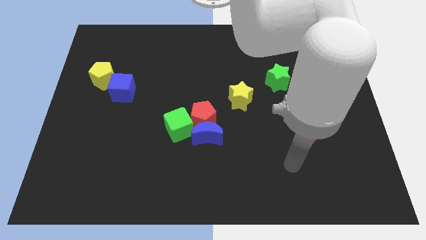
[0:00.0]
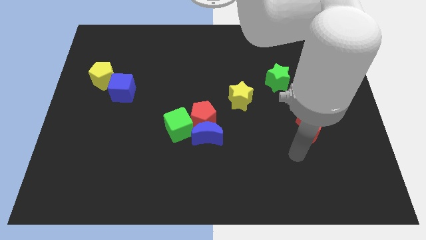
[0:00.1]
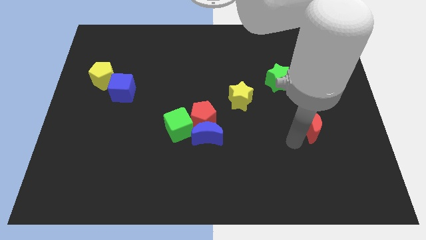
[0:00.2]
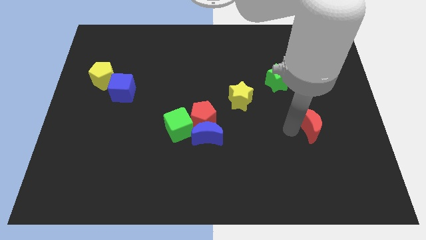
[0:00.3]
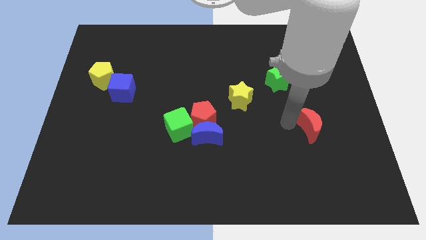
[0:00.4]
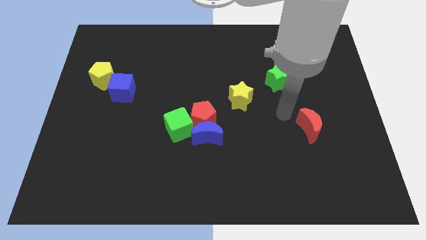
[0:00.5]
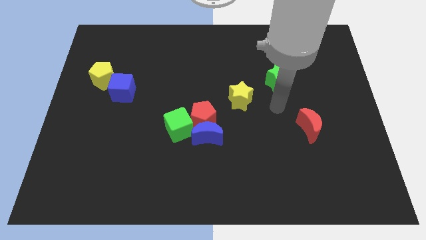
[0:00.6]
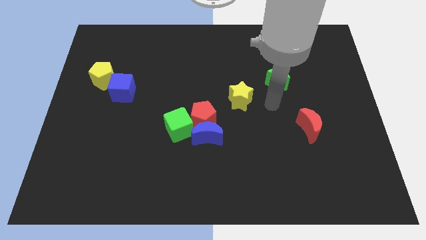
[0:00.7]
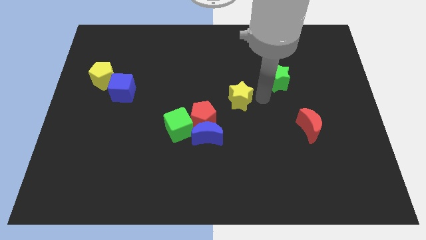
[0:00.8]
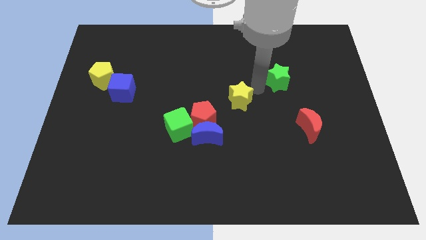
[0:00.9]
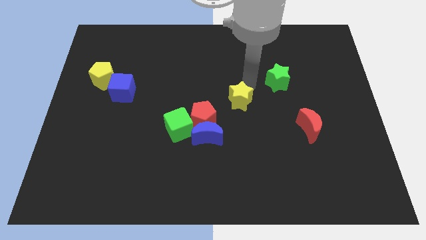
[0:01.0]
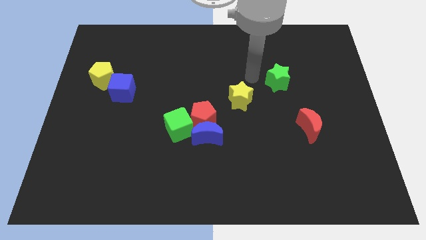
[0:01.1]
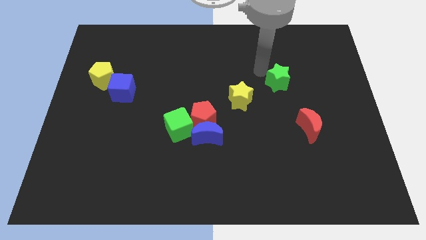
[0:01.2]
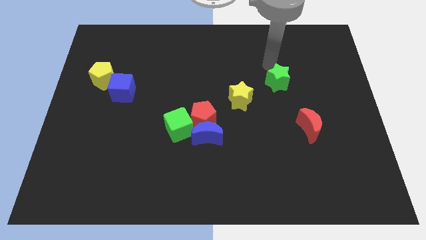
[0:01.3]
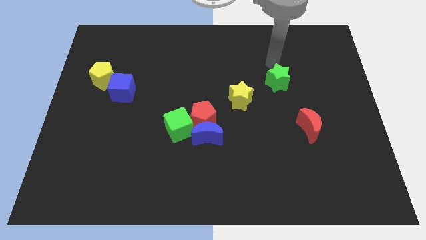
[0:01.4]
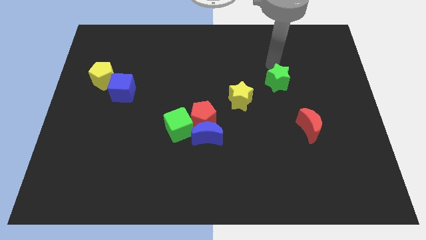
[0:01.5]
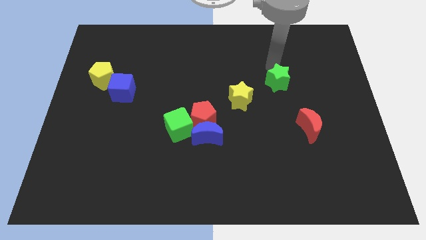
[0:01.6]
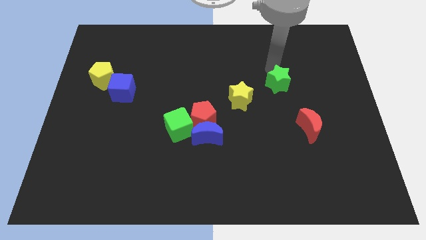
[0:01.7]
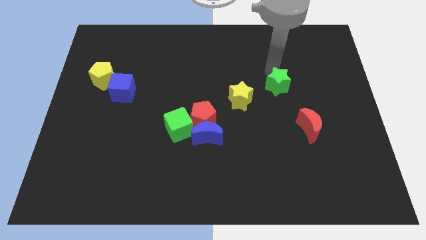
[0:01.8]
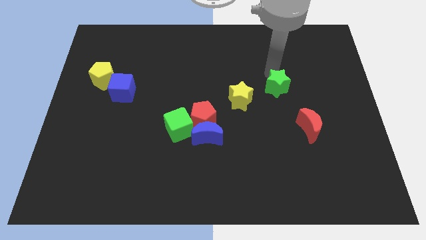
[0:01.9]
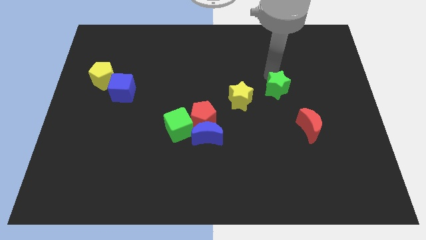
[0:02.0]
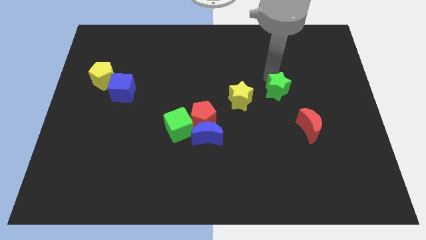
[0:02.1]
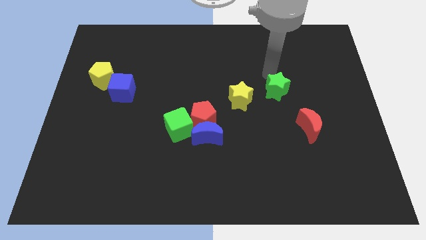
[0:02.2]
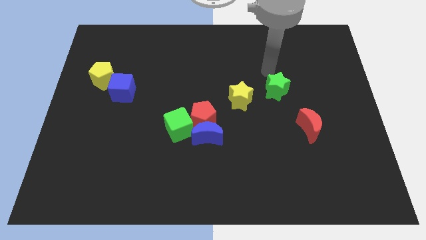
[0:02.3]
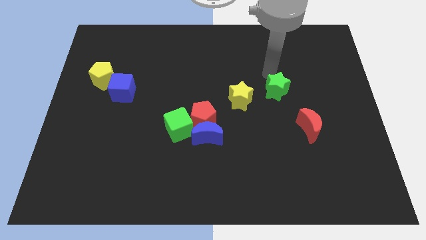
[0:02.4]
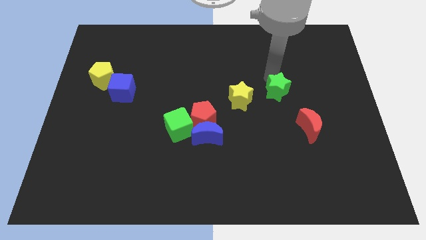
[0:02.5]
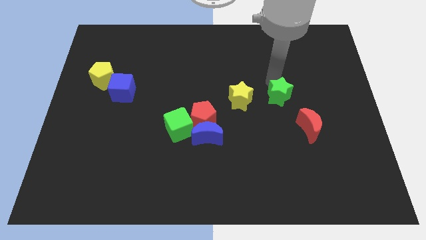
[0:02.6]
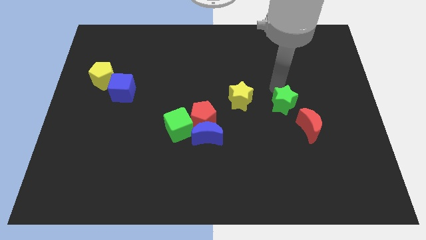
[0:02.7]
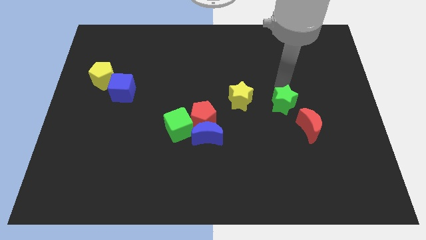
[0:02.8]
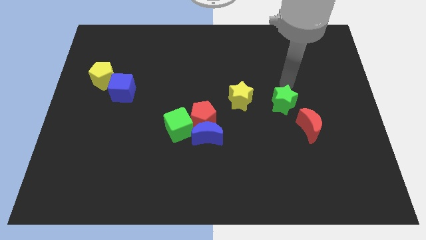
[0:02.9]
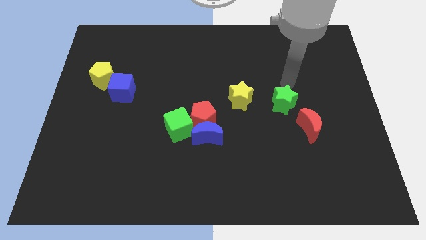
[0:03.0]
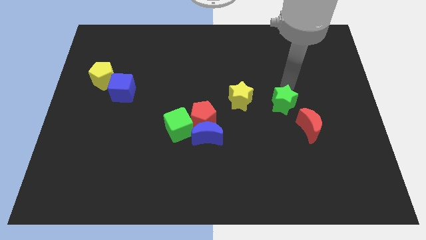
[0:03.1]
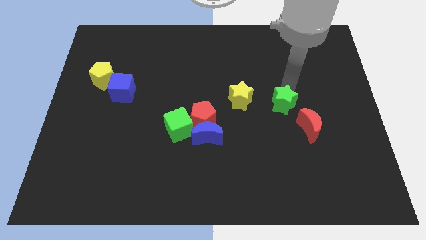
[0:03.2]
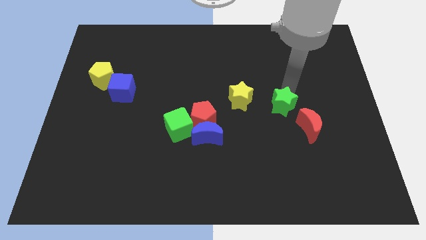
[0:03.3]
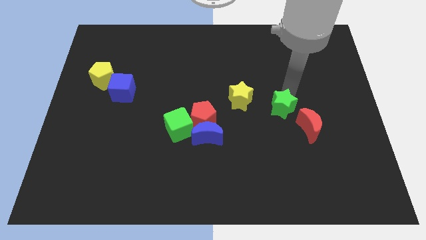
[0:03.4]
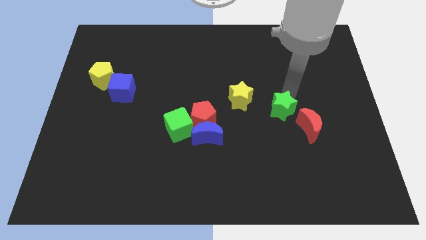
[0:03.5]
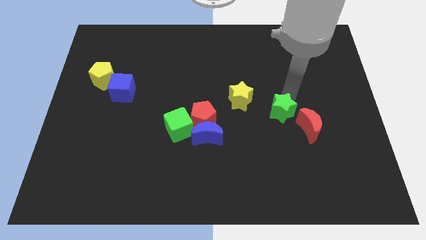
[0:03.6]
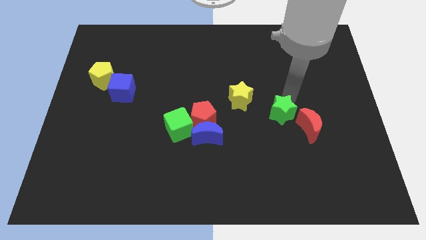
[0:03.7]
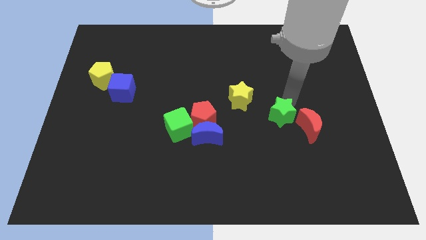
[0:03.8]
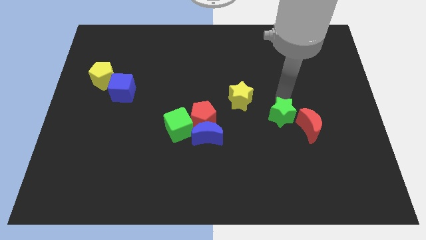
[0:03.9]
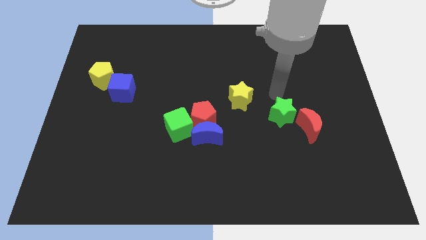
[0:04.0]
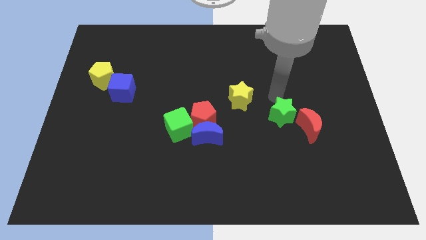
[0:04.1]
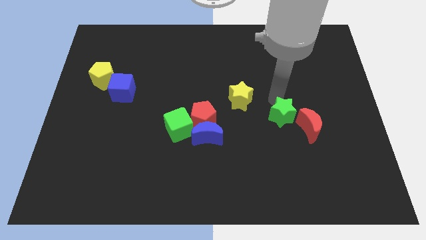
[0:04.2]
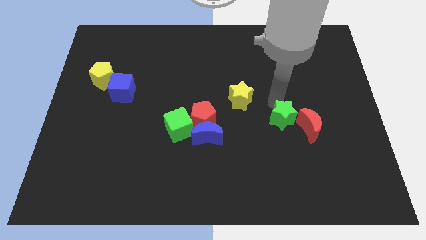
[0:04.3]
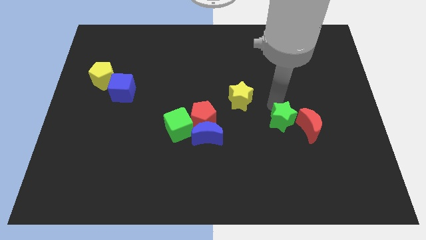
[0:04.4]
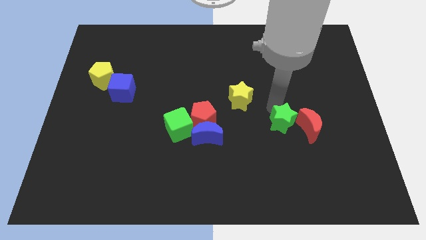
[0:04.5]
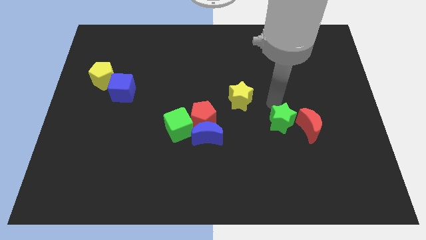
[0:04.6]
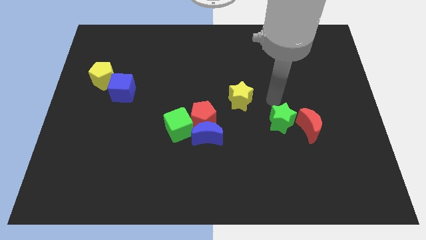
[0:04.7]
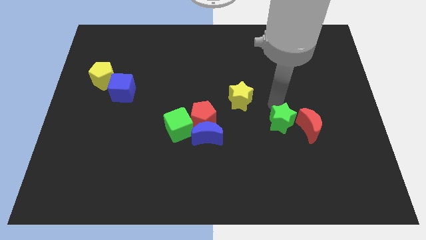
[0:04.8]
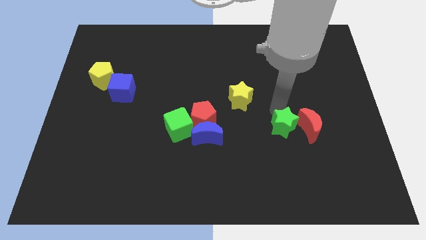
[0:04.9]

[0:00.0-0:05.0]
slide the green star to the bottom left of the red moon

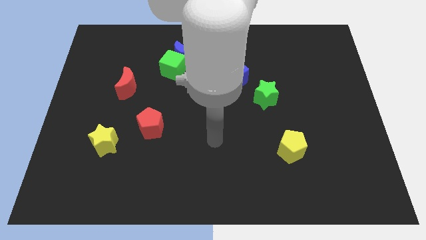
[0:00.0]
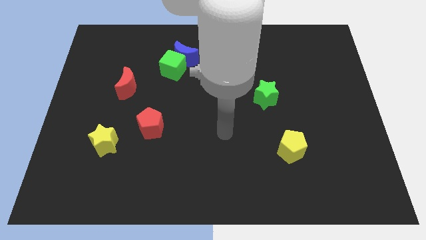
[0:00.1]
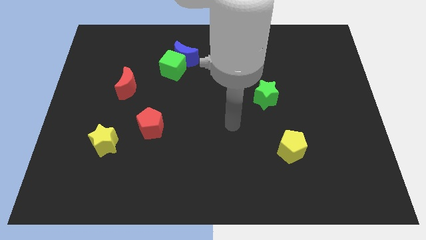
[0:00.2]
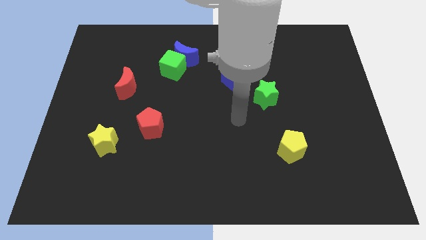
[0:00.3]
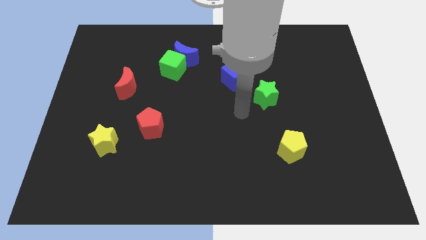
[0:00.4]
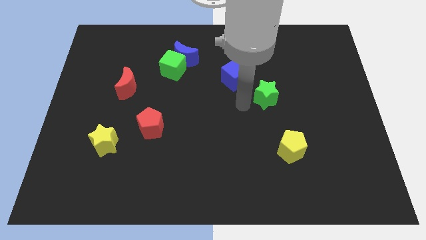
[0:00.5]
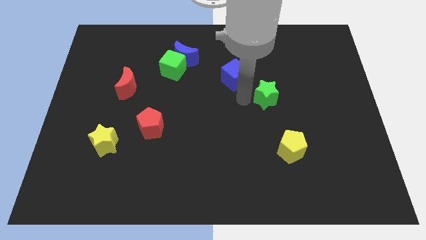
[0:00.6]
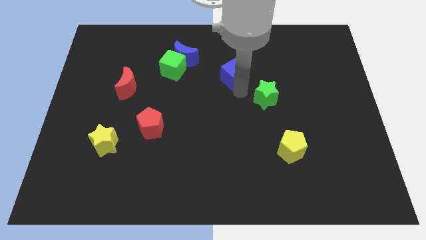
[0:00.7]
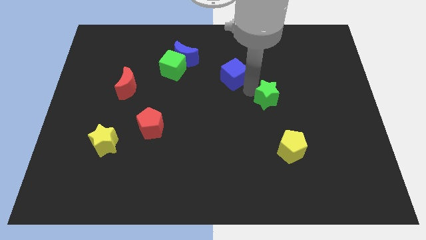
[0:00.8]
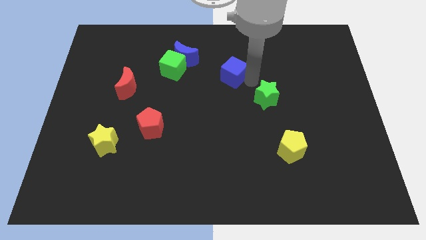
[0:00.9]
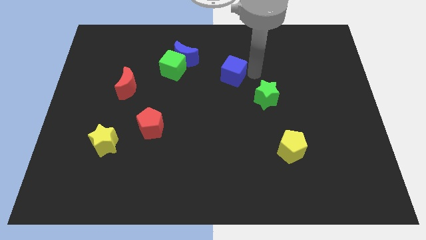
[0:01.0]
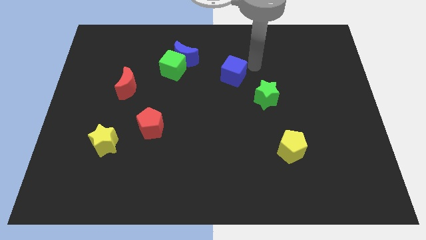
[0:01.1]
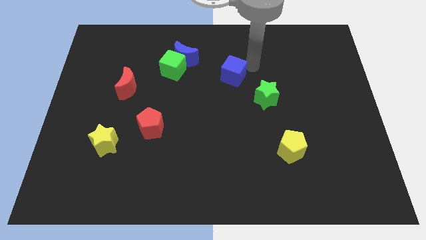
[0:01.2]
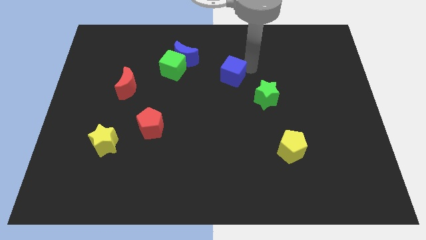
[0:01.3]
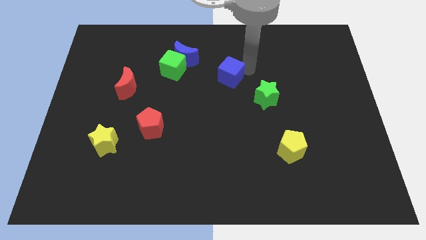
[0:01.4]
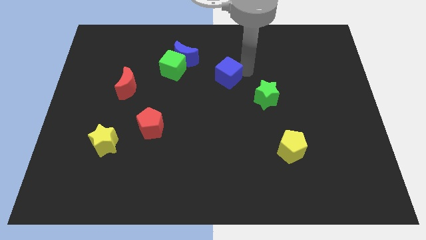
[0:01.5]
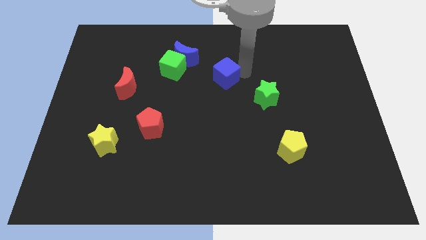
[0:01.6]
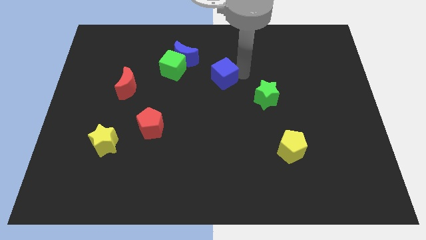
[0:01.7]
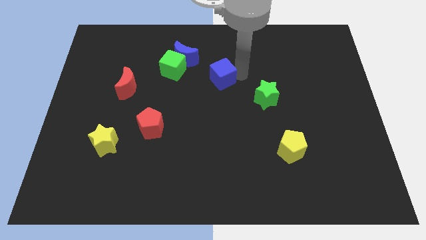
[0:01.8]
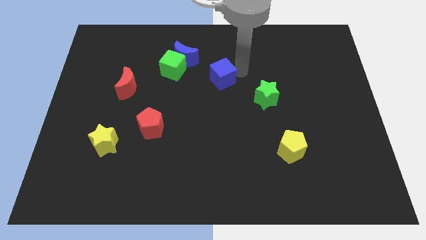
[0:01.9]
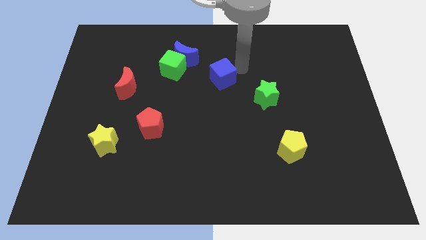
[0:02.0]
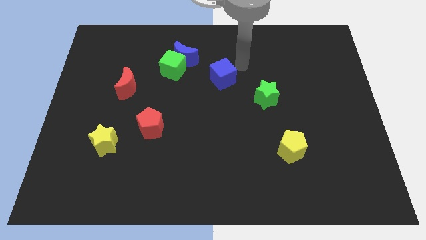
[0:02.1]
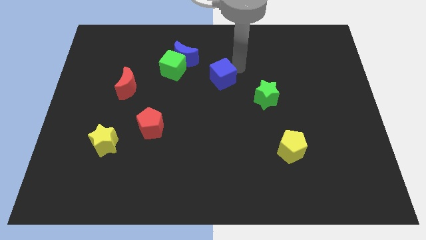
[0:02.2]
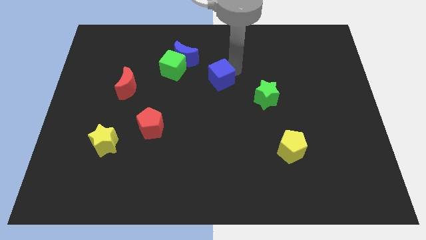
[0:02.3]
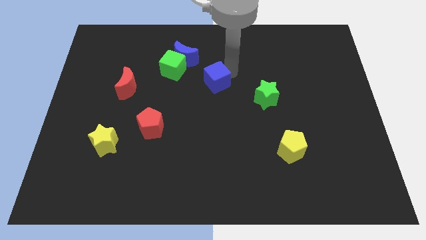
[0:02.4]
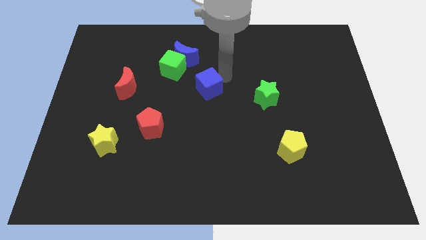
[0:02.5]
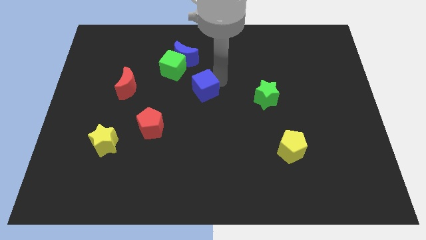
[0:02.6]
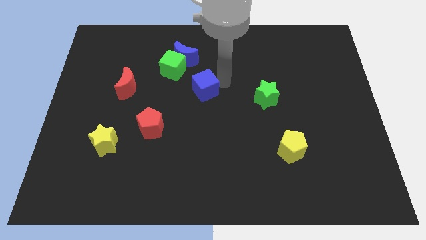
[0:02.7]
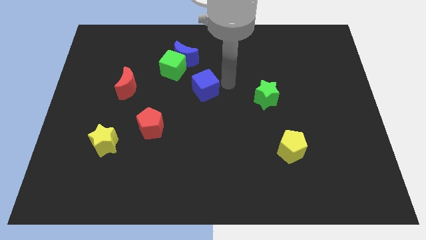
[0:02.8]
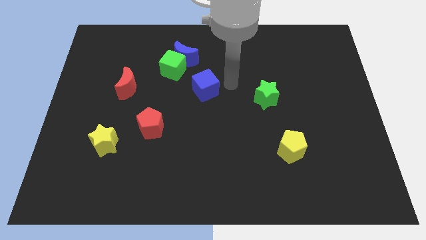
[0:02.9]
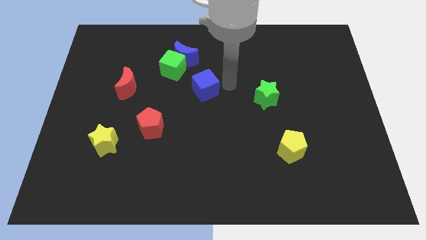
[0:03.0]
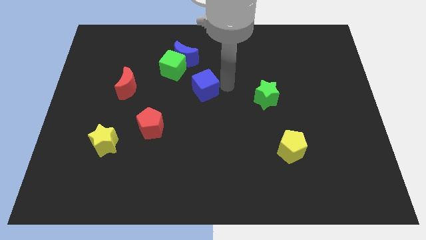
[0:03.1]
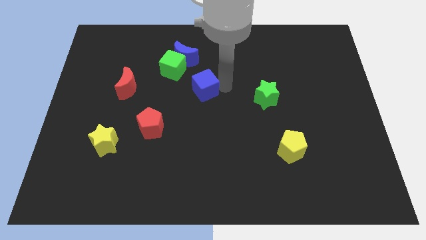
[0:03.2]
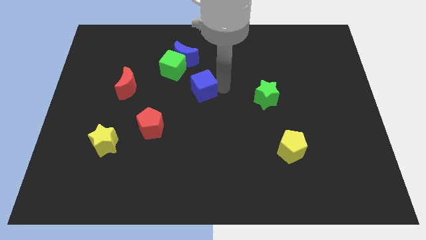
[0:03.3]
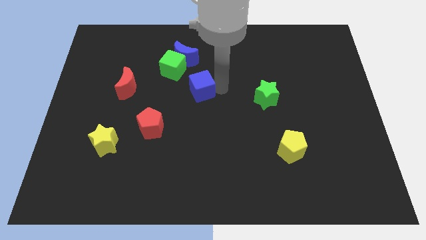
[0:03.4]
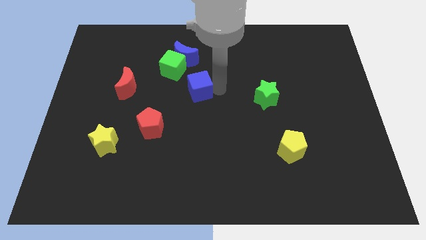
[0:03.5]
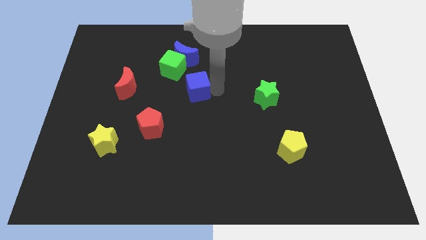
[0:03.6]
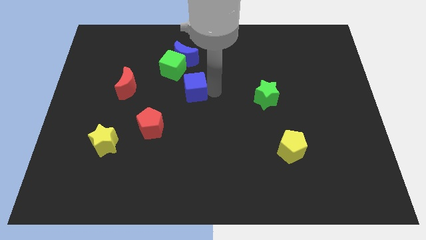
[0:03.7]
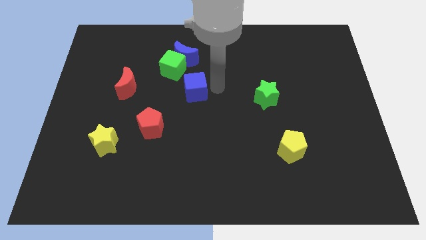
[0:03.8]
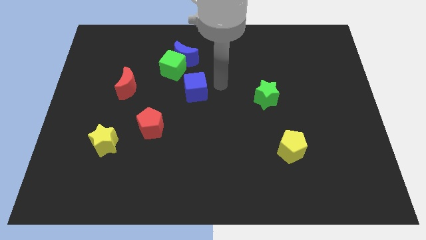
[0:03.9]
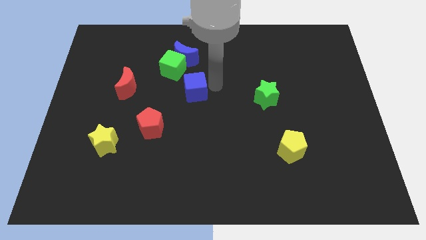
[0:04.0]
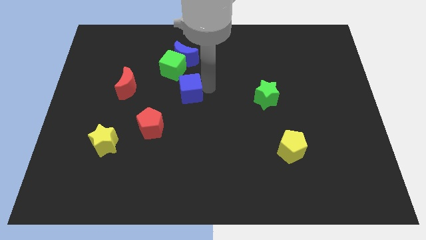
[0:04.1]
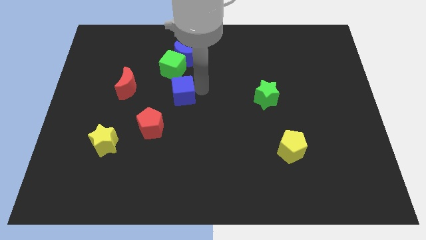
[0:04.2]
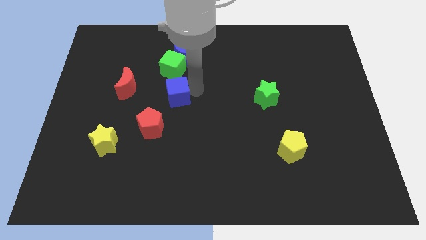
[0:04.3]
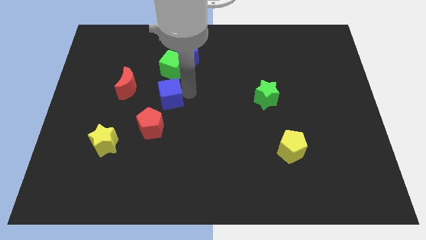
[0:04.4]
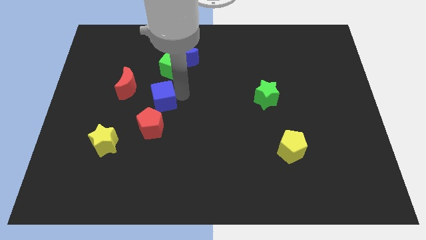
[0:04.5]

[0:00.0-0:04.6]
move the blue cube to the bottom right of the red moon
